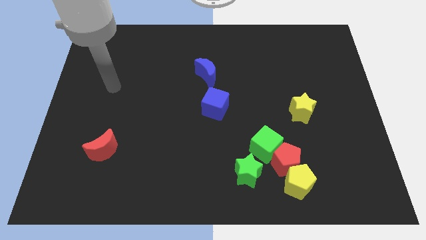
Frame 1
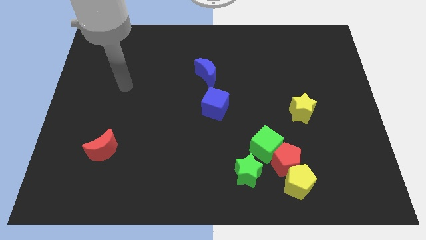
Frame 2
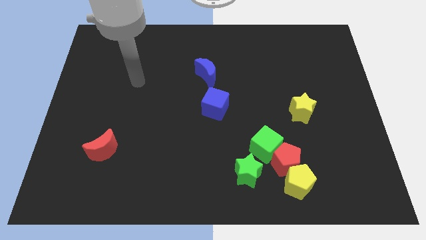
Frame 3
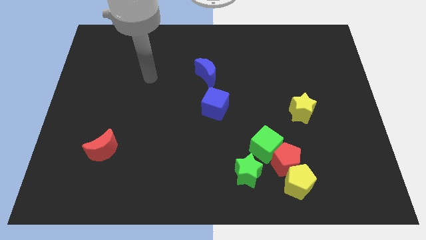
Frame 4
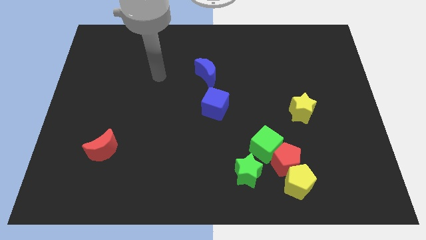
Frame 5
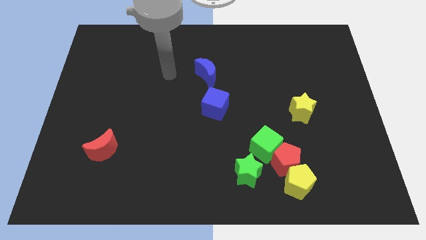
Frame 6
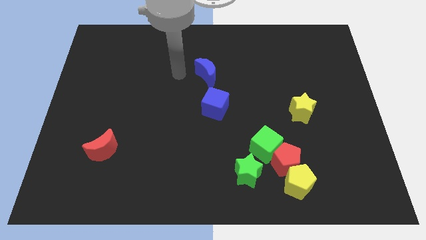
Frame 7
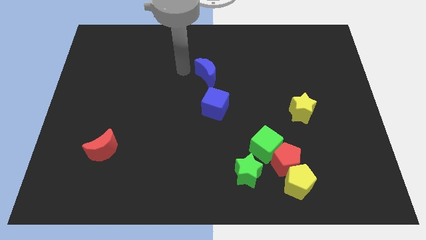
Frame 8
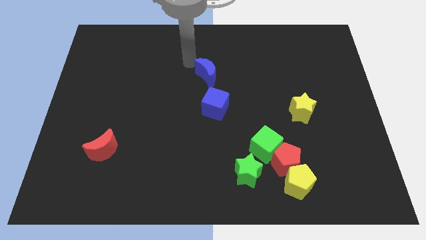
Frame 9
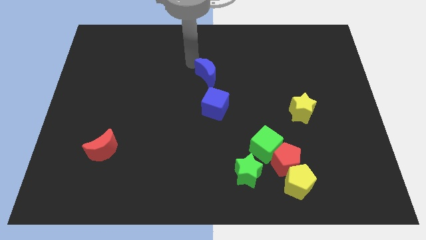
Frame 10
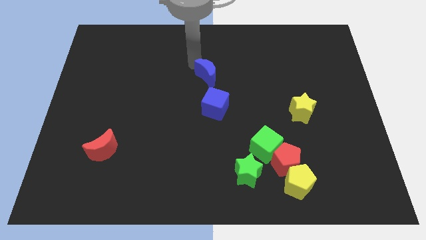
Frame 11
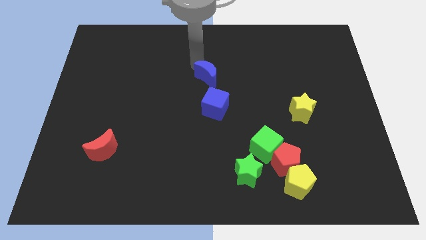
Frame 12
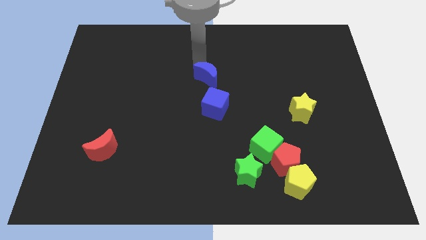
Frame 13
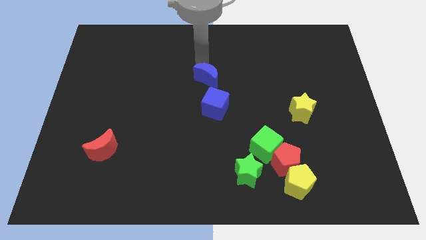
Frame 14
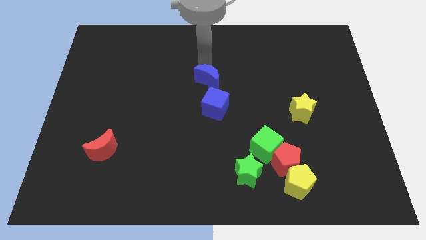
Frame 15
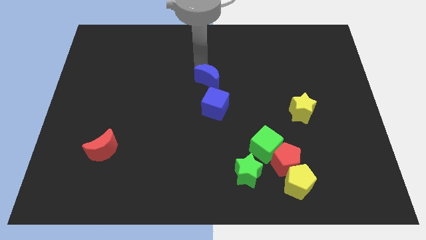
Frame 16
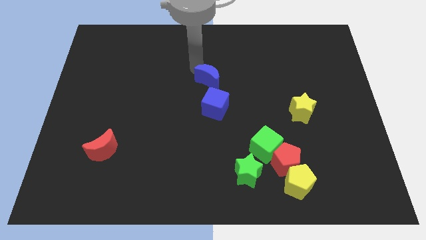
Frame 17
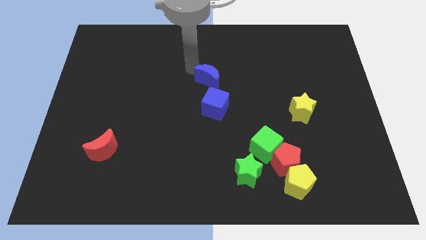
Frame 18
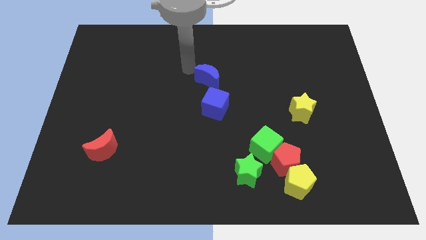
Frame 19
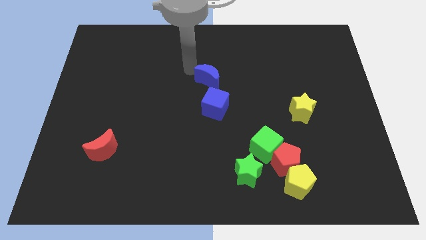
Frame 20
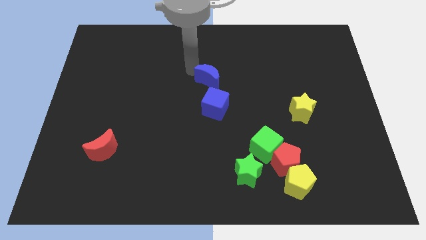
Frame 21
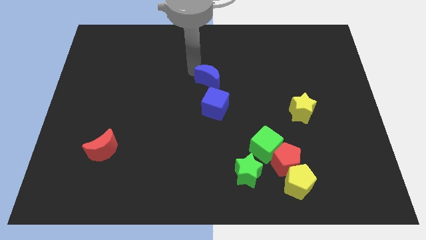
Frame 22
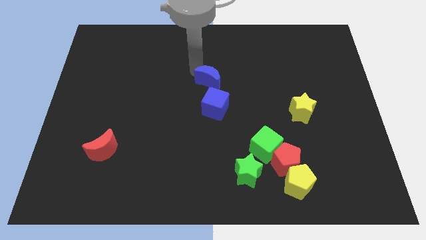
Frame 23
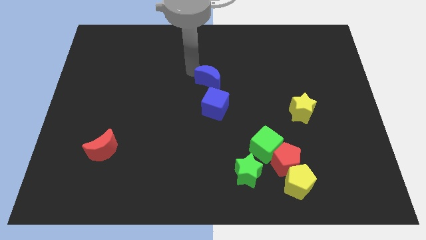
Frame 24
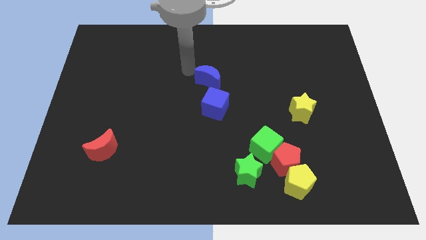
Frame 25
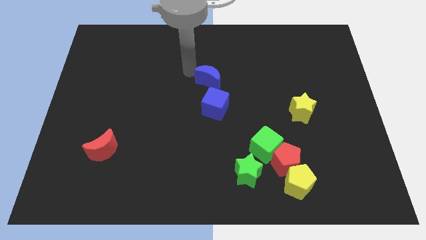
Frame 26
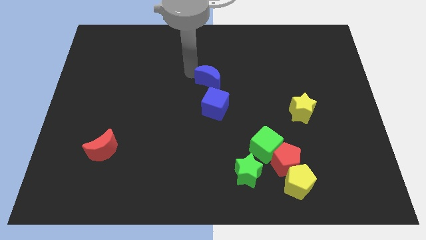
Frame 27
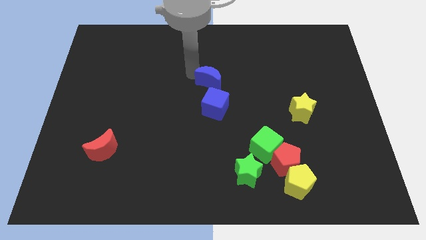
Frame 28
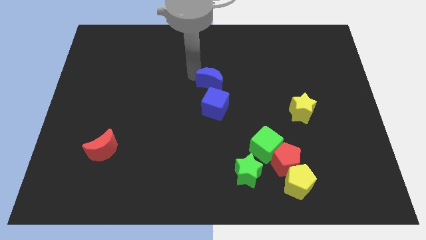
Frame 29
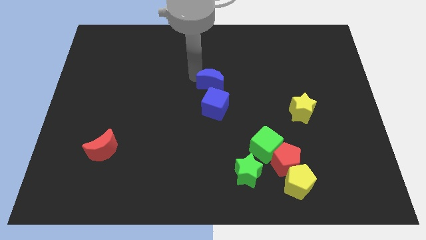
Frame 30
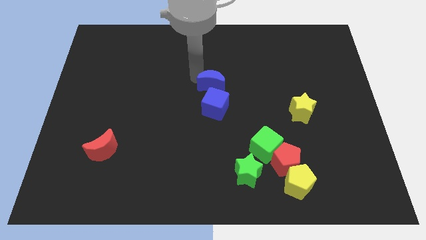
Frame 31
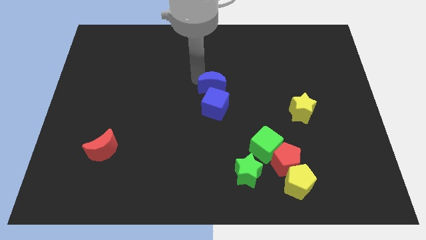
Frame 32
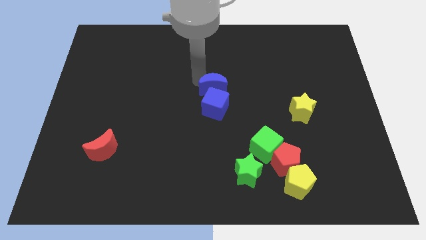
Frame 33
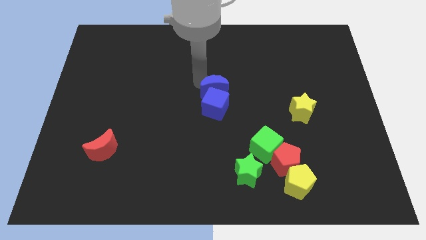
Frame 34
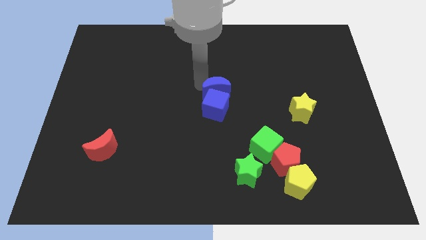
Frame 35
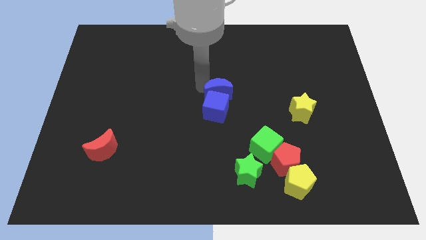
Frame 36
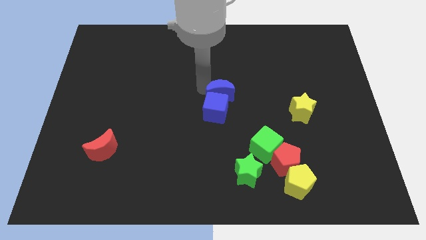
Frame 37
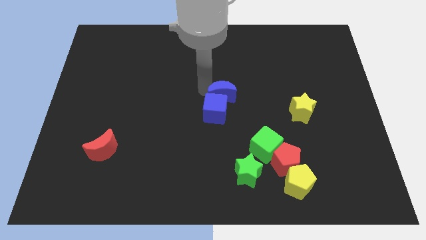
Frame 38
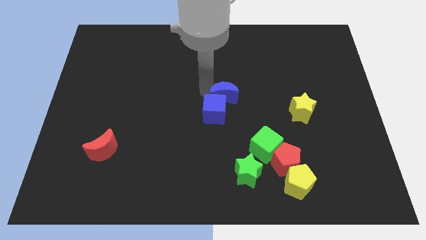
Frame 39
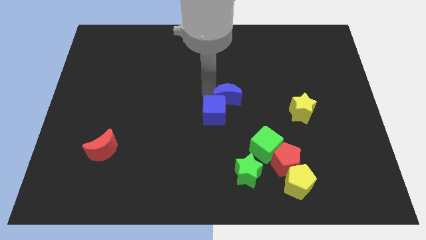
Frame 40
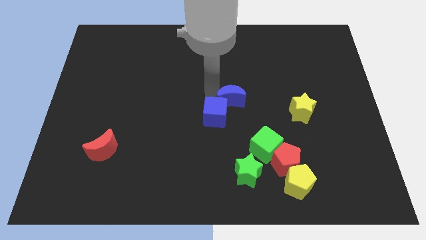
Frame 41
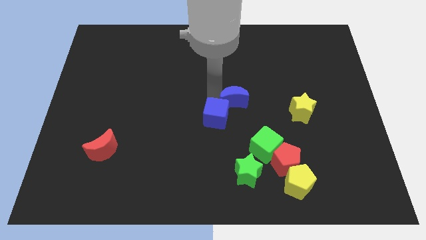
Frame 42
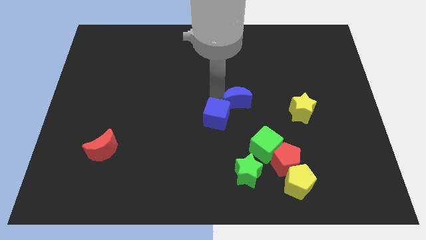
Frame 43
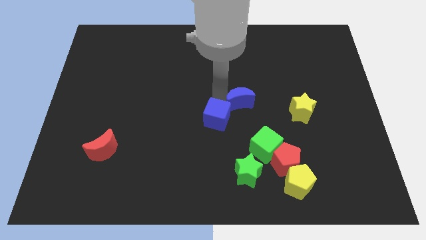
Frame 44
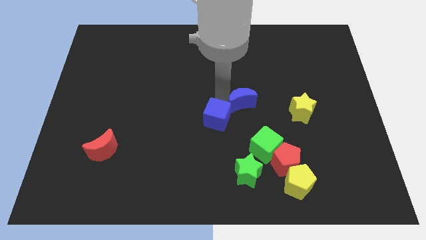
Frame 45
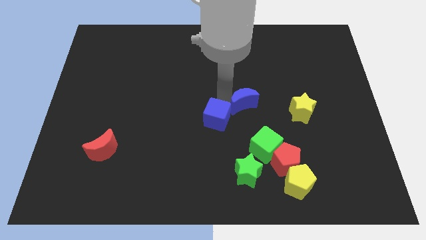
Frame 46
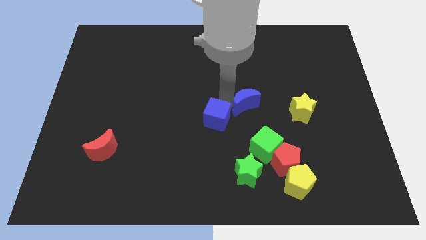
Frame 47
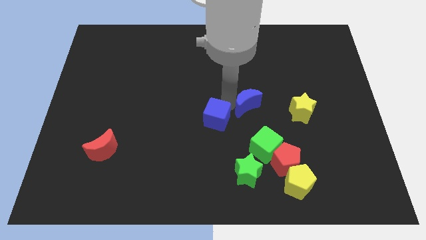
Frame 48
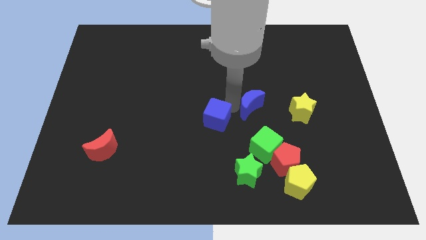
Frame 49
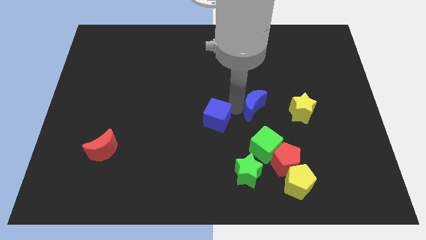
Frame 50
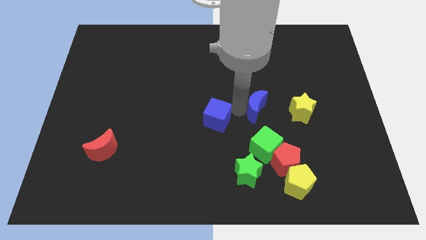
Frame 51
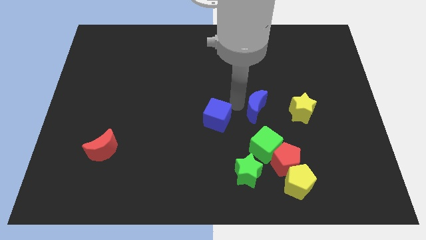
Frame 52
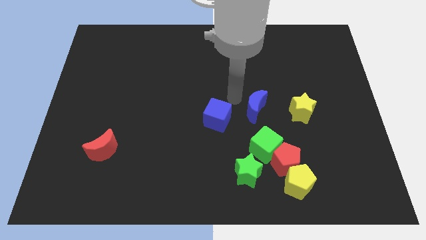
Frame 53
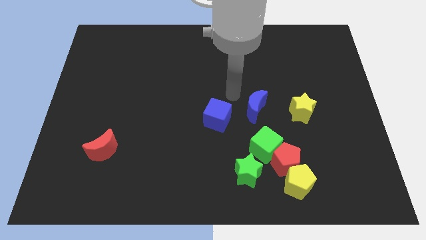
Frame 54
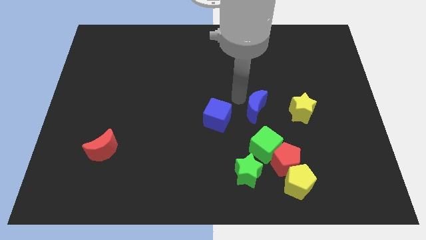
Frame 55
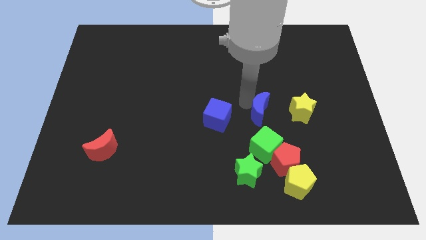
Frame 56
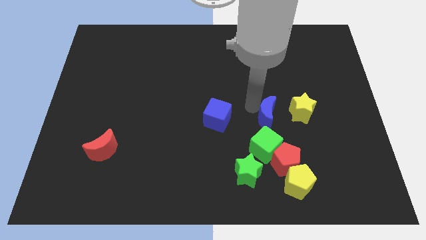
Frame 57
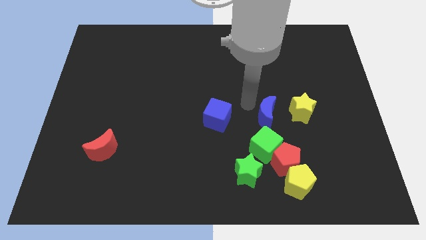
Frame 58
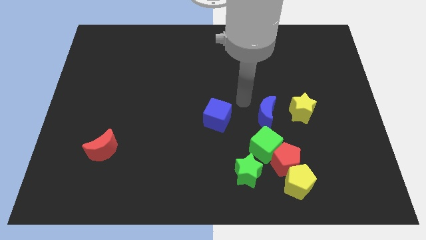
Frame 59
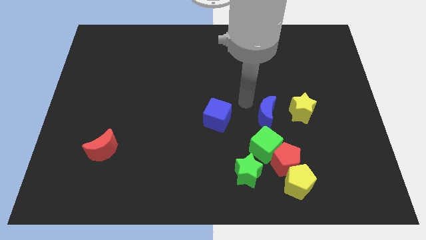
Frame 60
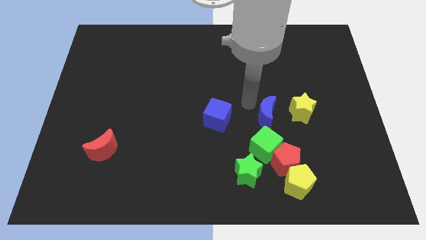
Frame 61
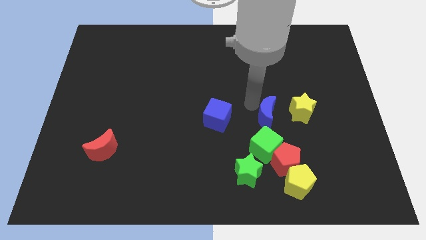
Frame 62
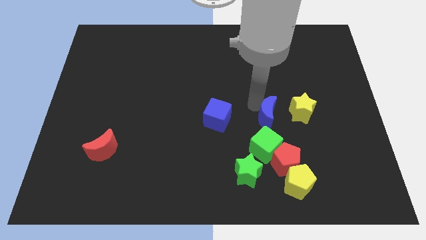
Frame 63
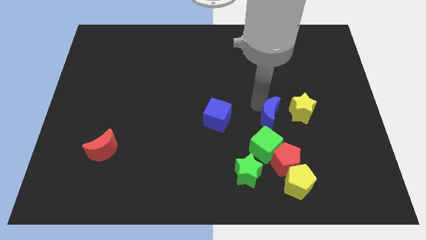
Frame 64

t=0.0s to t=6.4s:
move the blue moon to the top right of the green cube
